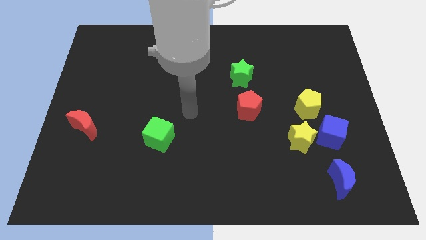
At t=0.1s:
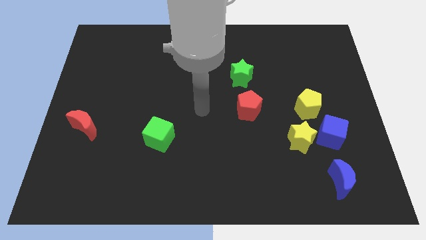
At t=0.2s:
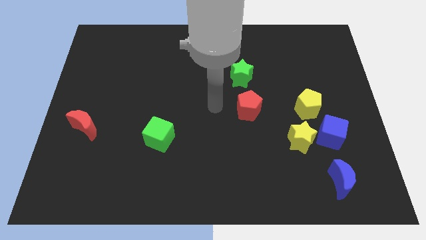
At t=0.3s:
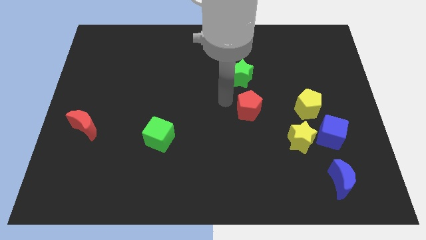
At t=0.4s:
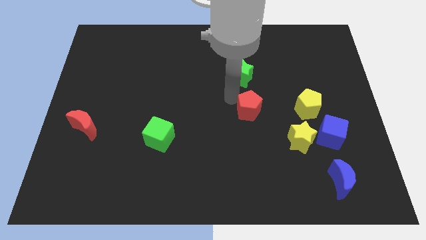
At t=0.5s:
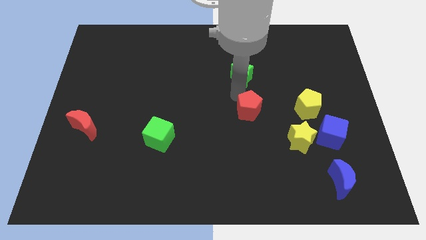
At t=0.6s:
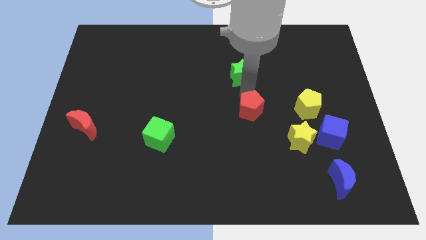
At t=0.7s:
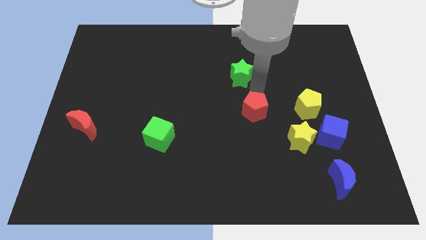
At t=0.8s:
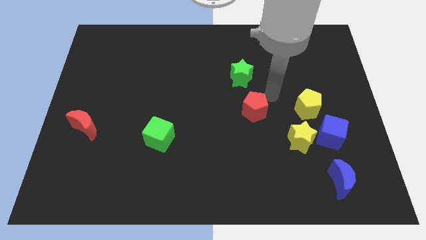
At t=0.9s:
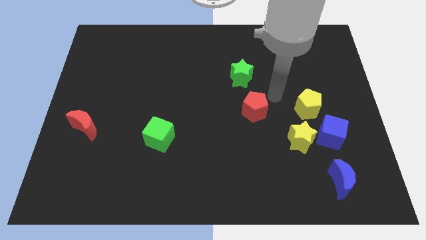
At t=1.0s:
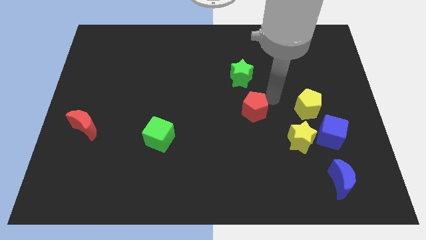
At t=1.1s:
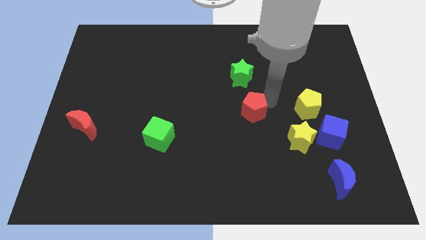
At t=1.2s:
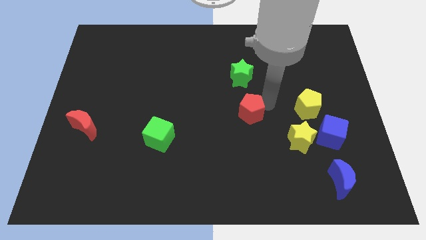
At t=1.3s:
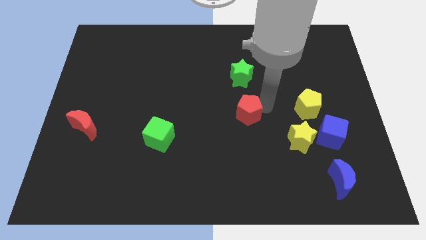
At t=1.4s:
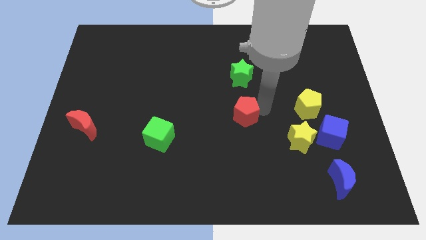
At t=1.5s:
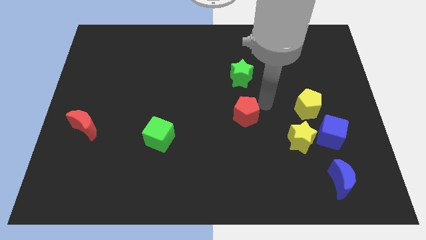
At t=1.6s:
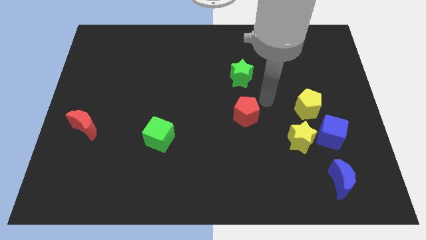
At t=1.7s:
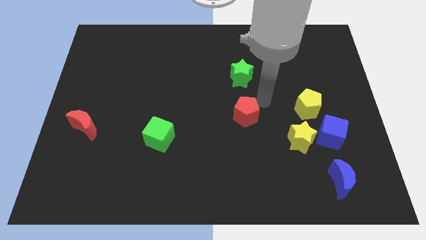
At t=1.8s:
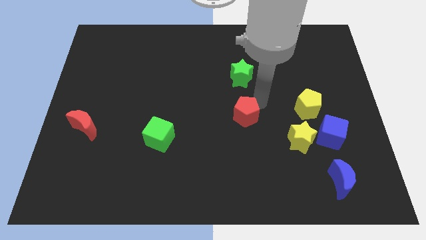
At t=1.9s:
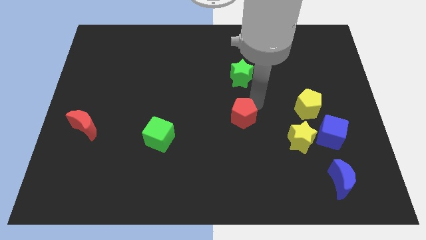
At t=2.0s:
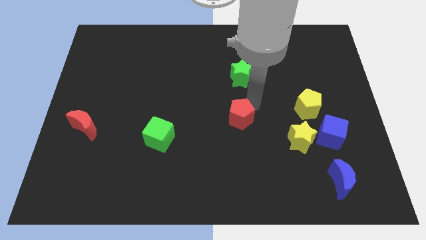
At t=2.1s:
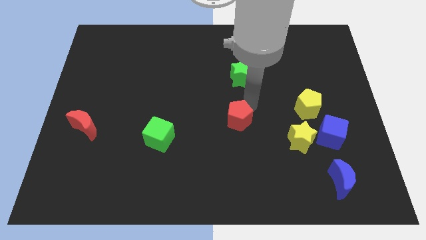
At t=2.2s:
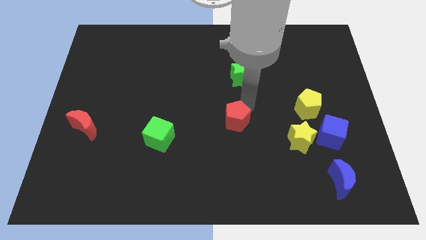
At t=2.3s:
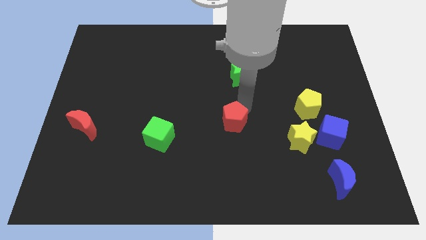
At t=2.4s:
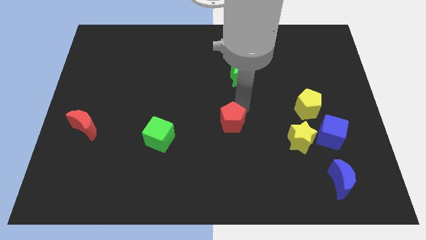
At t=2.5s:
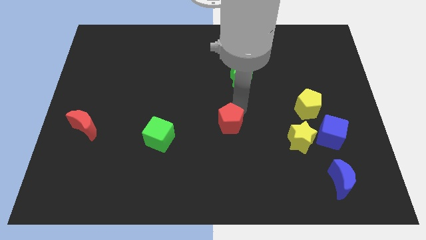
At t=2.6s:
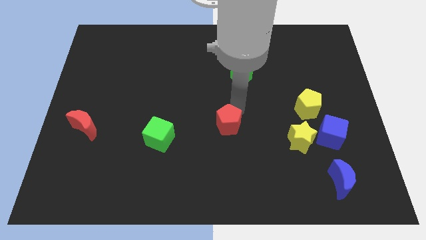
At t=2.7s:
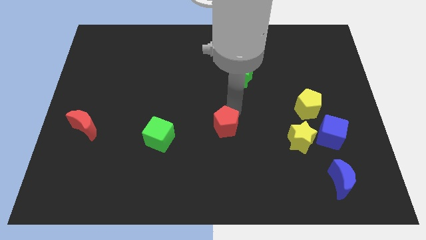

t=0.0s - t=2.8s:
push the red pentagon down and left somewhat

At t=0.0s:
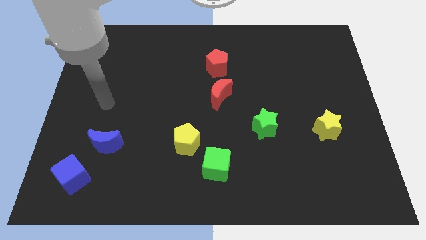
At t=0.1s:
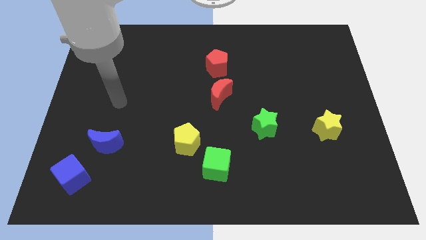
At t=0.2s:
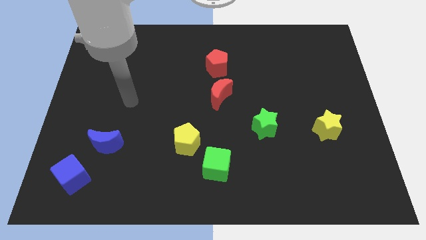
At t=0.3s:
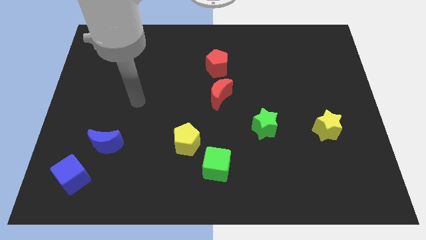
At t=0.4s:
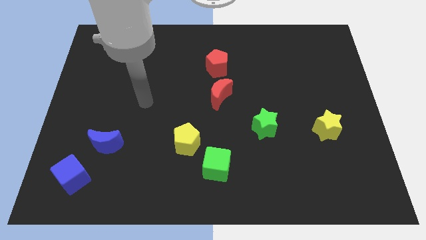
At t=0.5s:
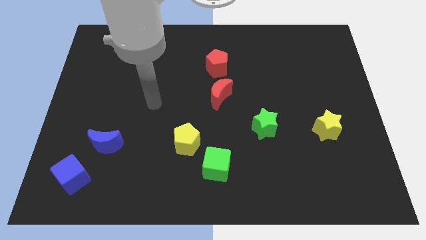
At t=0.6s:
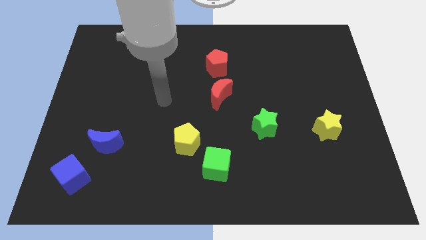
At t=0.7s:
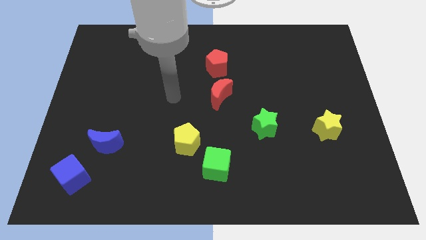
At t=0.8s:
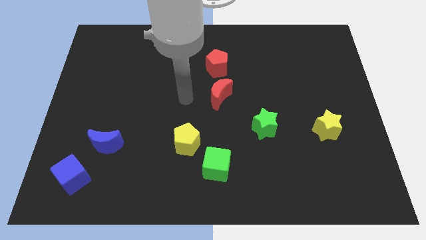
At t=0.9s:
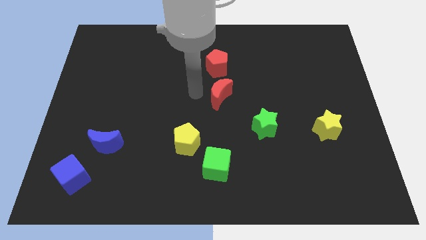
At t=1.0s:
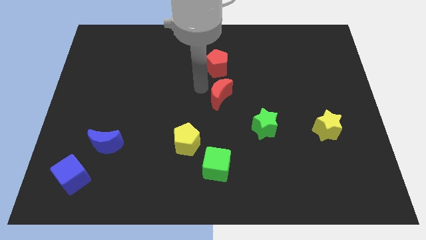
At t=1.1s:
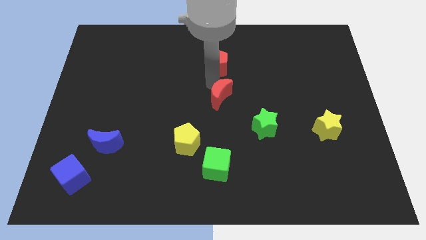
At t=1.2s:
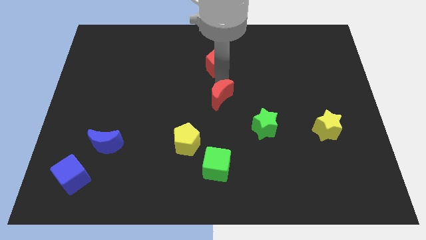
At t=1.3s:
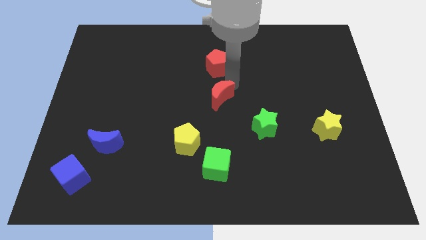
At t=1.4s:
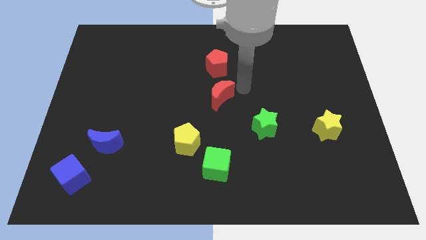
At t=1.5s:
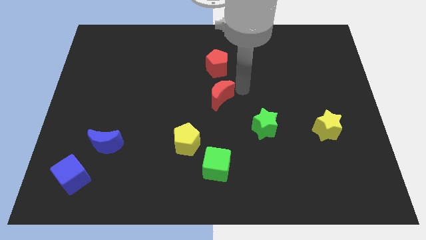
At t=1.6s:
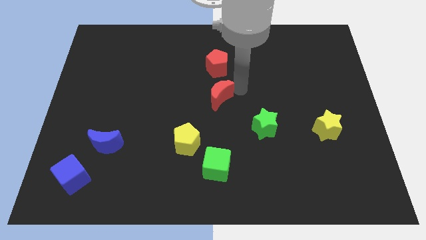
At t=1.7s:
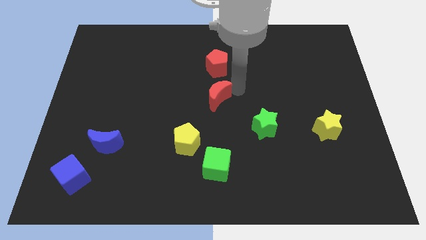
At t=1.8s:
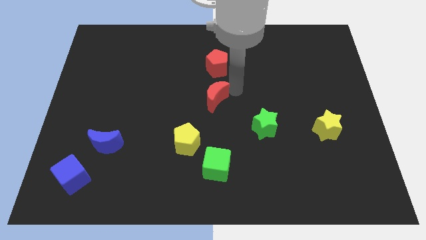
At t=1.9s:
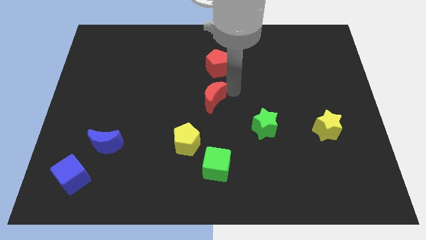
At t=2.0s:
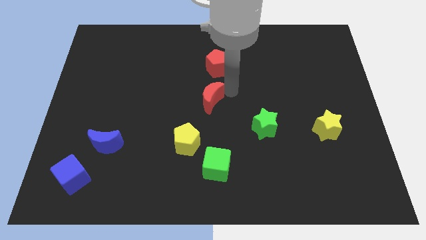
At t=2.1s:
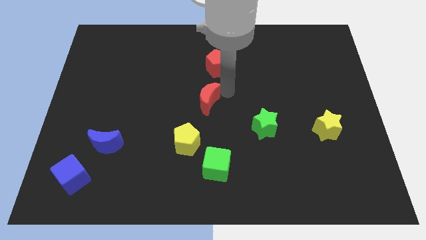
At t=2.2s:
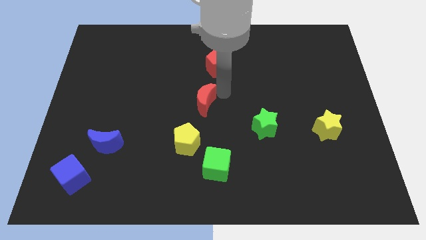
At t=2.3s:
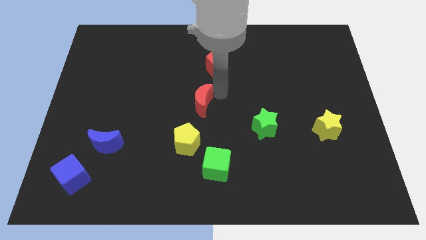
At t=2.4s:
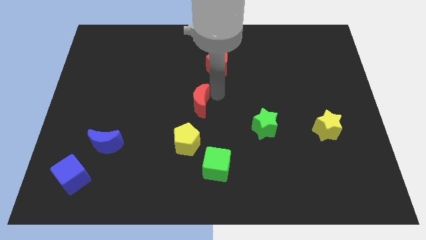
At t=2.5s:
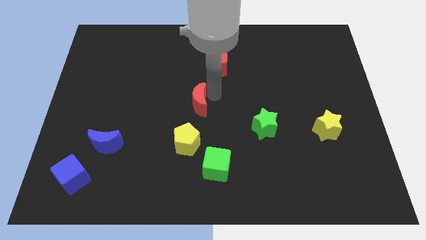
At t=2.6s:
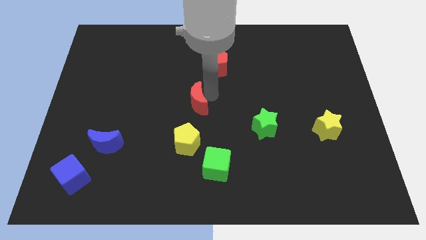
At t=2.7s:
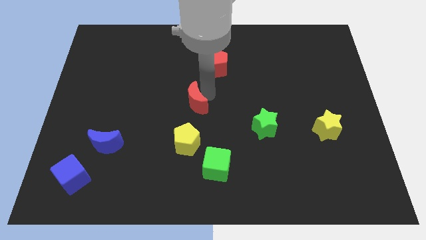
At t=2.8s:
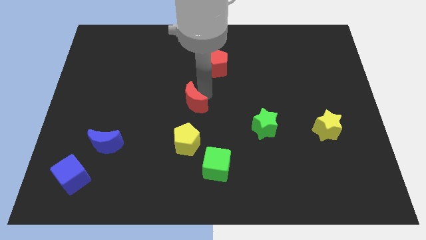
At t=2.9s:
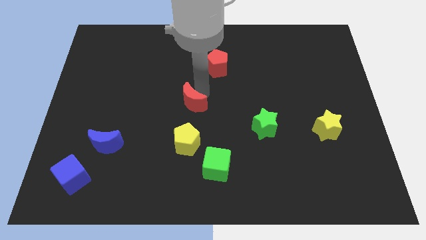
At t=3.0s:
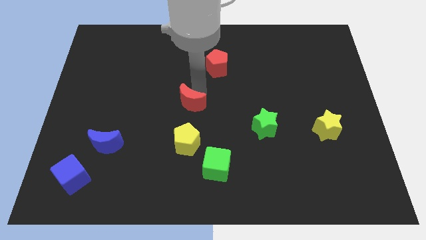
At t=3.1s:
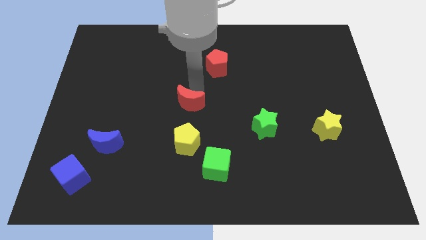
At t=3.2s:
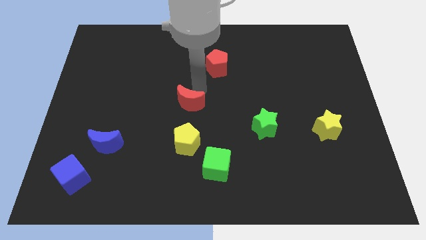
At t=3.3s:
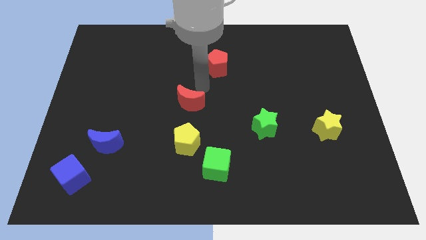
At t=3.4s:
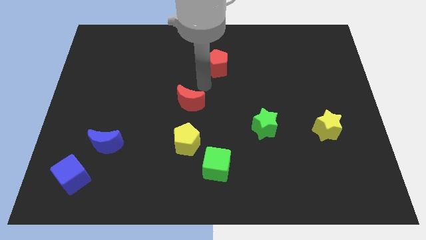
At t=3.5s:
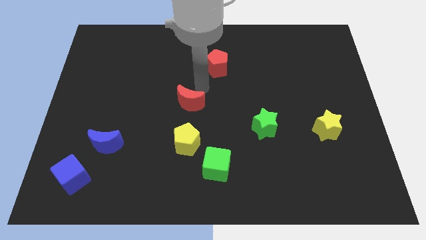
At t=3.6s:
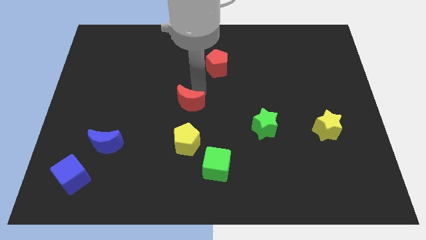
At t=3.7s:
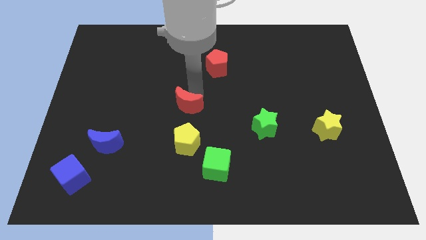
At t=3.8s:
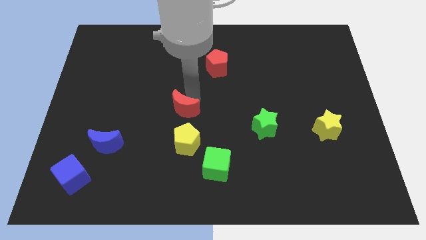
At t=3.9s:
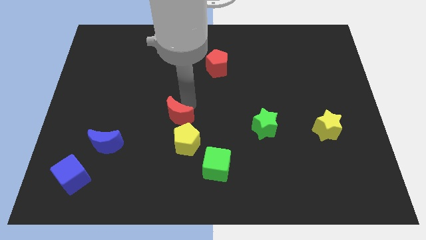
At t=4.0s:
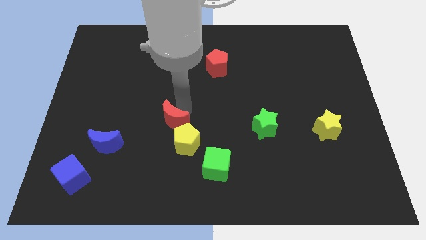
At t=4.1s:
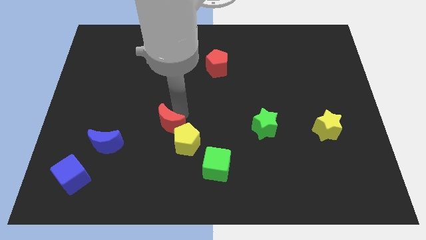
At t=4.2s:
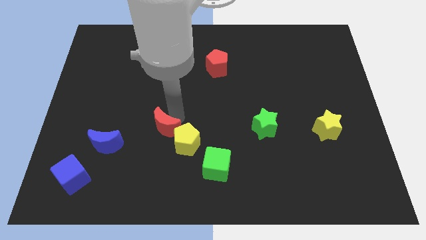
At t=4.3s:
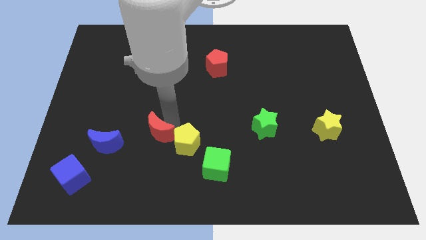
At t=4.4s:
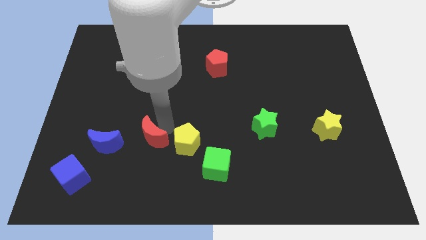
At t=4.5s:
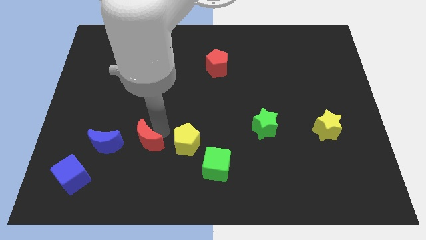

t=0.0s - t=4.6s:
push the red moon downwards and to the left diagonally

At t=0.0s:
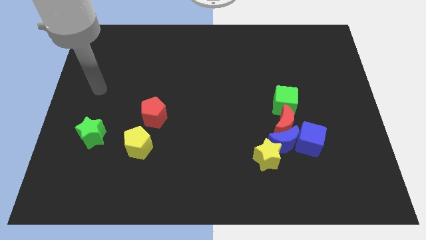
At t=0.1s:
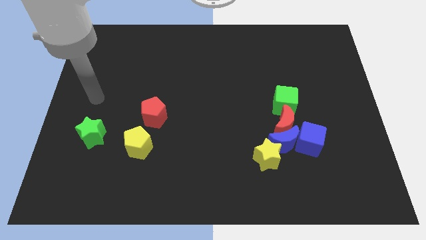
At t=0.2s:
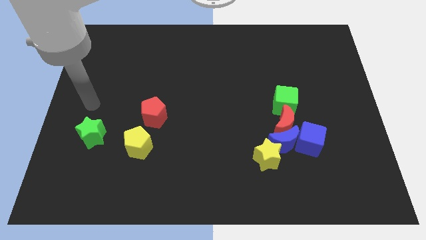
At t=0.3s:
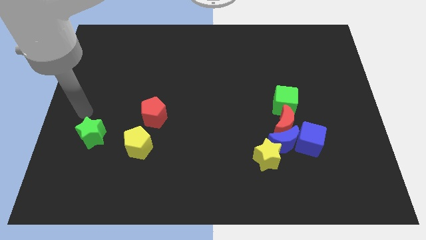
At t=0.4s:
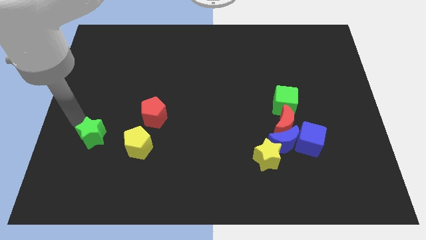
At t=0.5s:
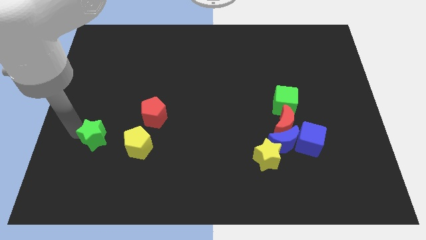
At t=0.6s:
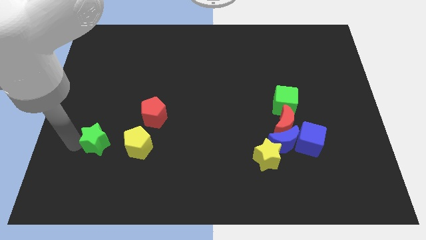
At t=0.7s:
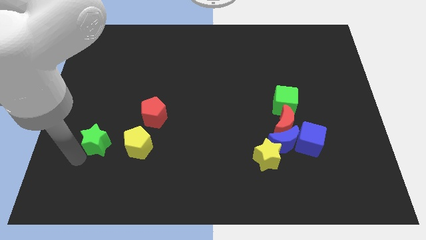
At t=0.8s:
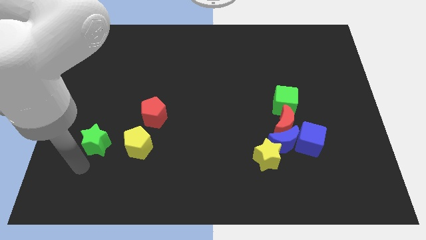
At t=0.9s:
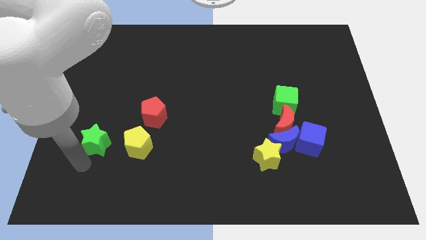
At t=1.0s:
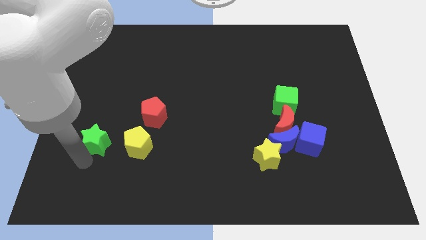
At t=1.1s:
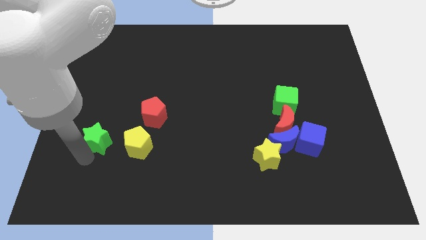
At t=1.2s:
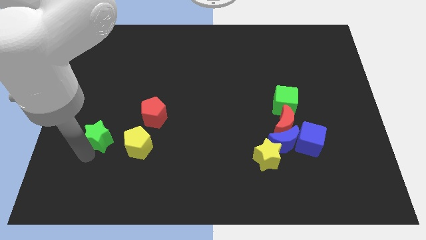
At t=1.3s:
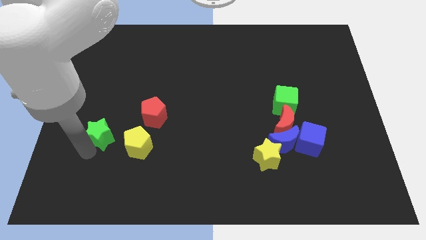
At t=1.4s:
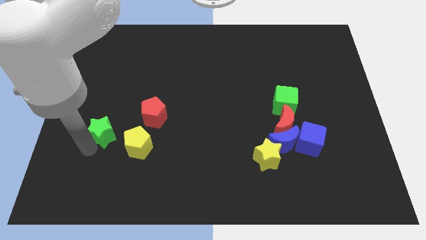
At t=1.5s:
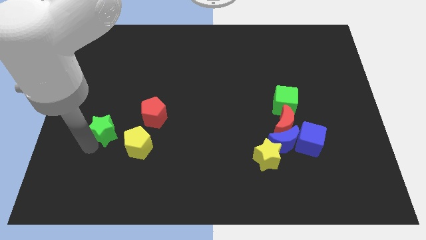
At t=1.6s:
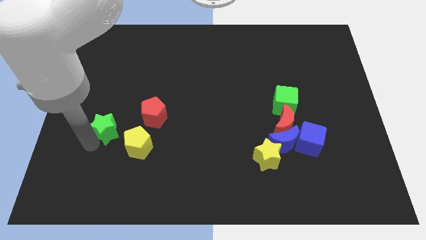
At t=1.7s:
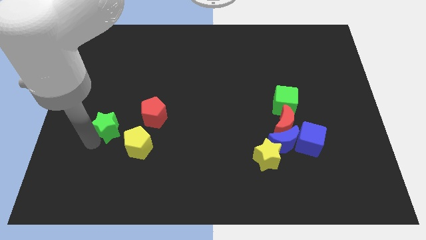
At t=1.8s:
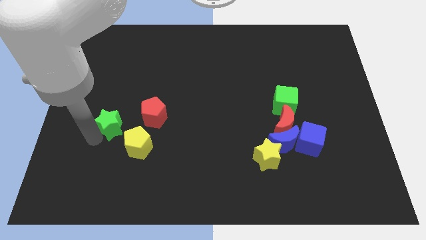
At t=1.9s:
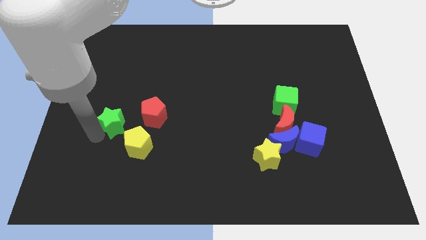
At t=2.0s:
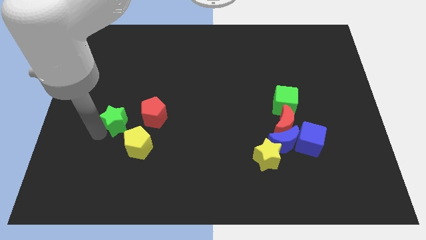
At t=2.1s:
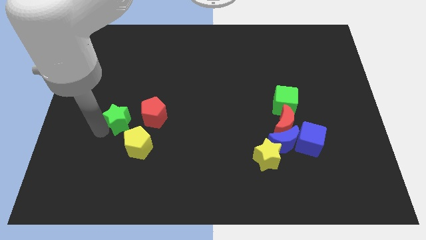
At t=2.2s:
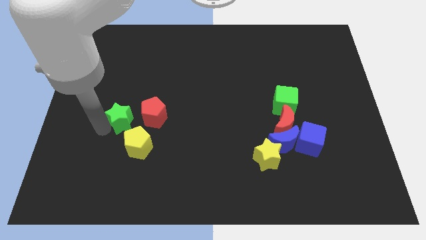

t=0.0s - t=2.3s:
move the green star upwards and then right somewhat
